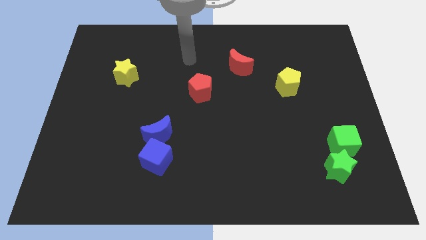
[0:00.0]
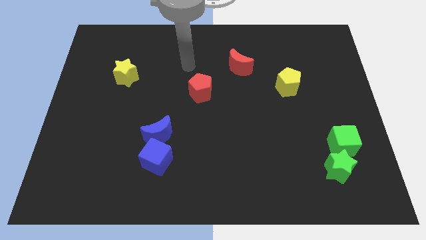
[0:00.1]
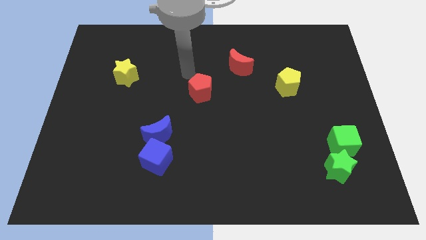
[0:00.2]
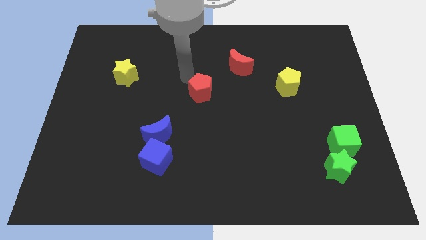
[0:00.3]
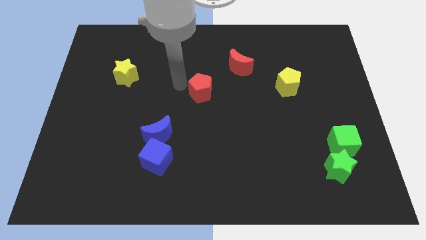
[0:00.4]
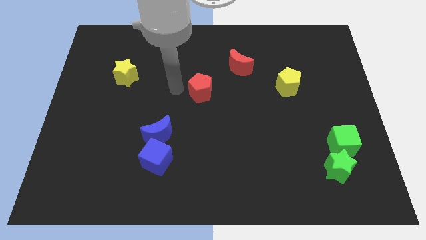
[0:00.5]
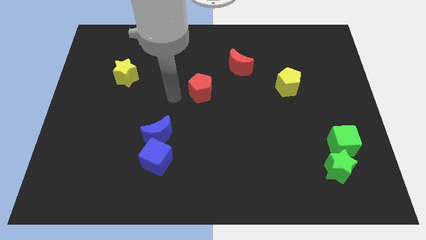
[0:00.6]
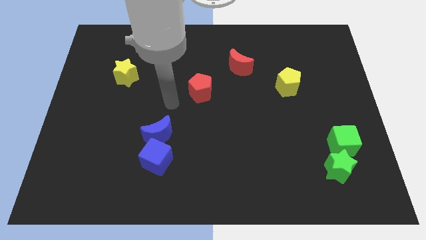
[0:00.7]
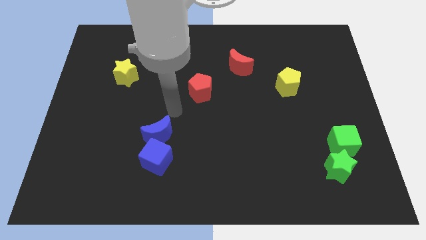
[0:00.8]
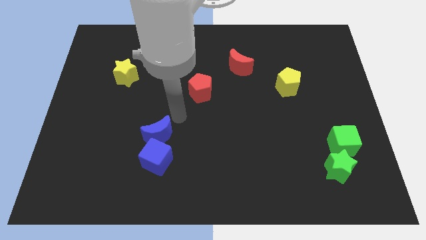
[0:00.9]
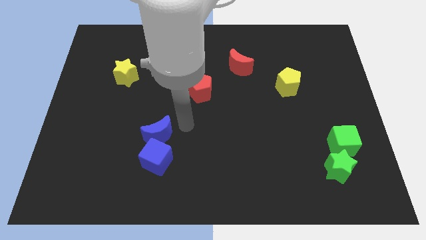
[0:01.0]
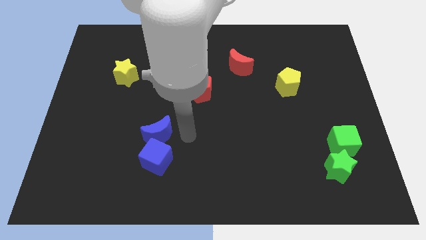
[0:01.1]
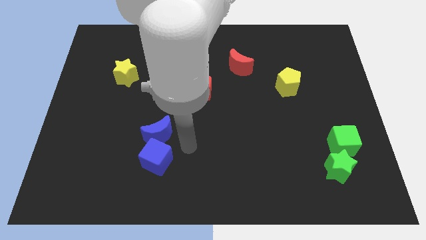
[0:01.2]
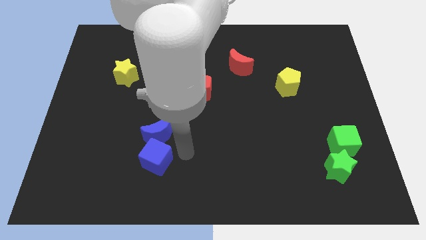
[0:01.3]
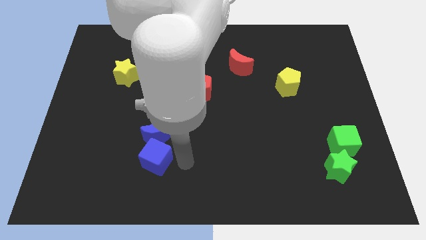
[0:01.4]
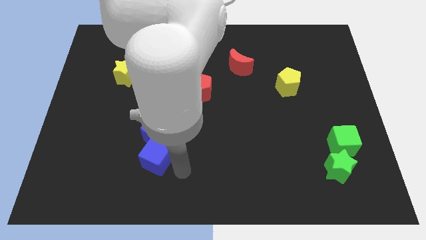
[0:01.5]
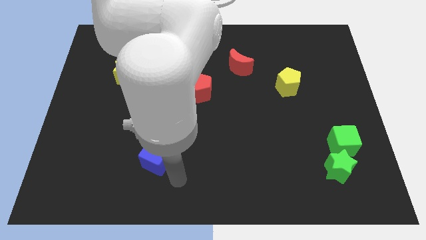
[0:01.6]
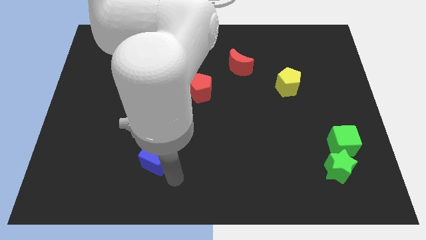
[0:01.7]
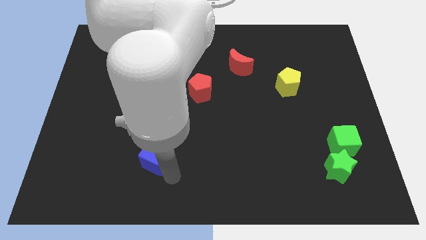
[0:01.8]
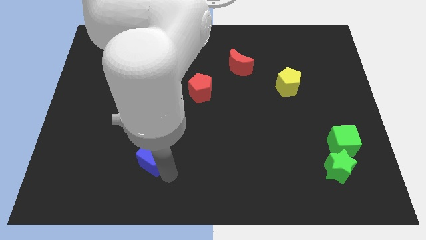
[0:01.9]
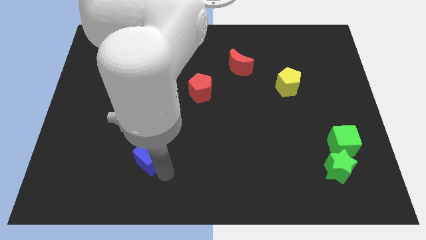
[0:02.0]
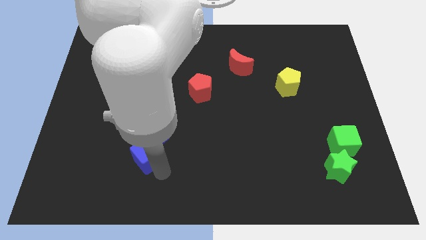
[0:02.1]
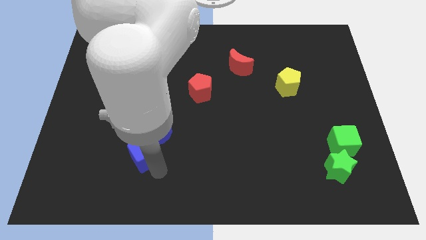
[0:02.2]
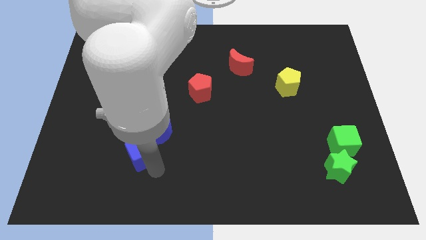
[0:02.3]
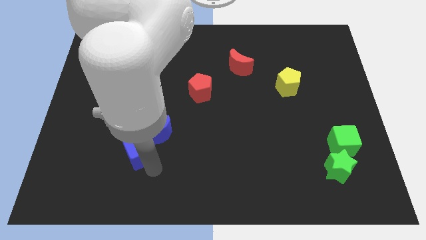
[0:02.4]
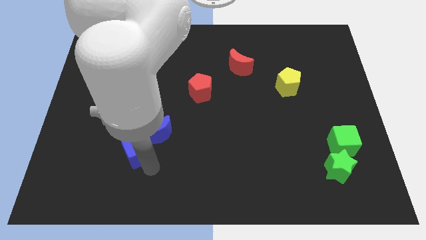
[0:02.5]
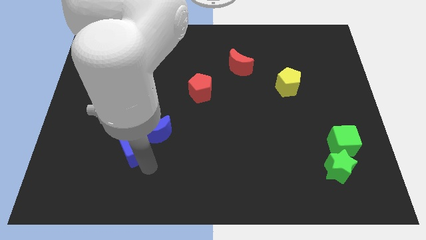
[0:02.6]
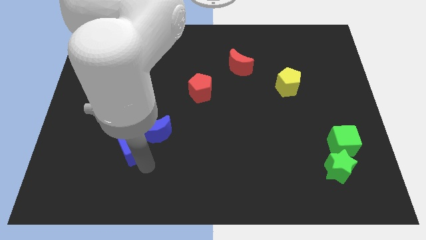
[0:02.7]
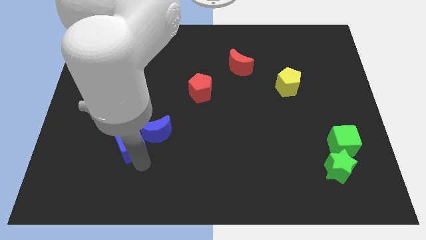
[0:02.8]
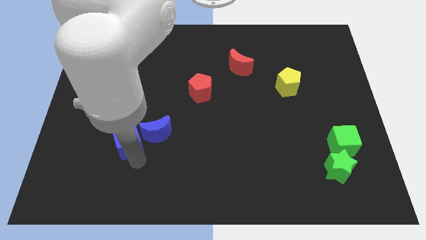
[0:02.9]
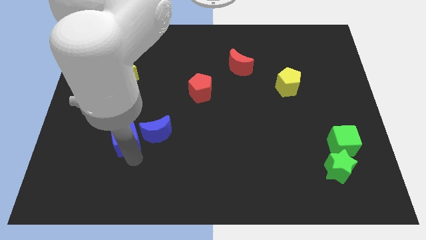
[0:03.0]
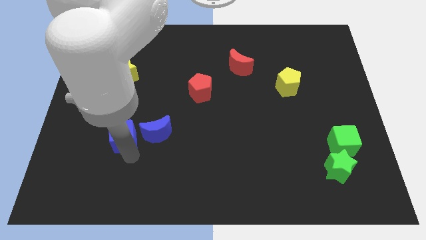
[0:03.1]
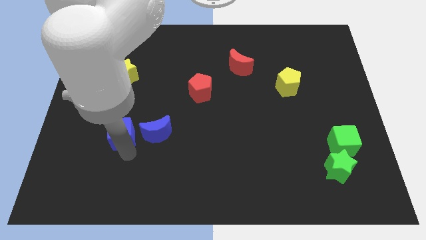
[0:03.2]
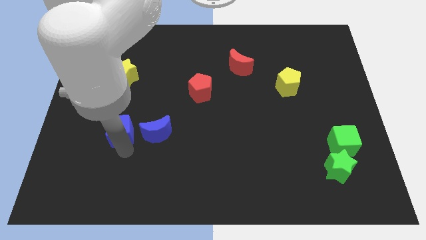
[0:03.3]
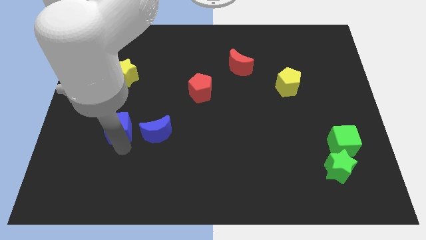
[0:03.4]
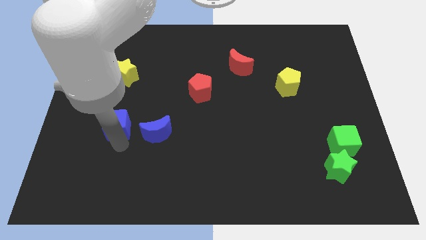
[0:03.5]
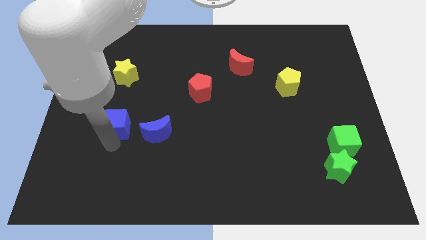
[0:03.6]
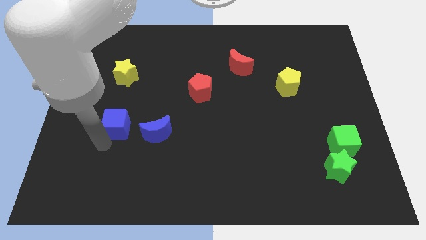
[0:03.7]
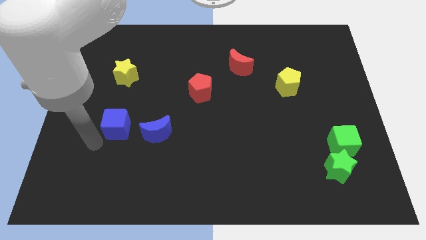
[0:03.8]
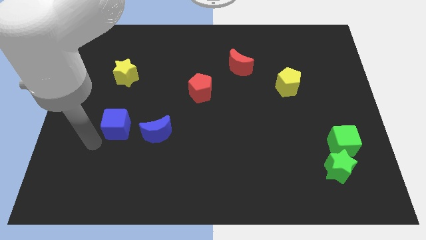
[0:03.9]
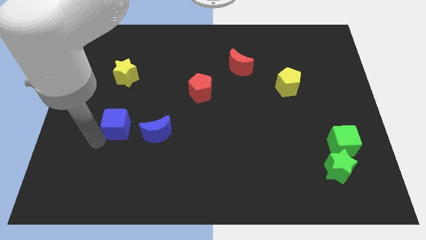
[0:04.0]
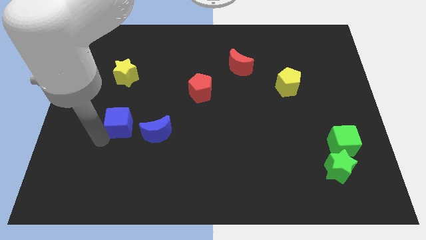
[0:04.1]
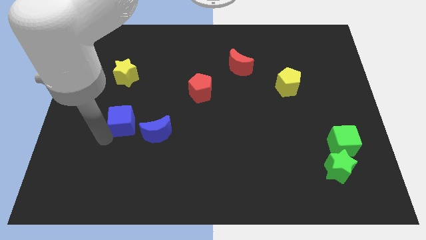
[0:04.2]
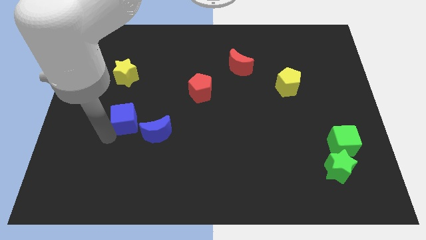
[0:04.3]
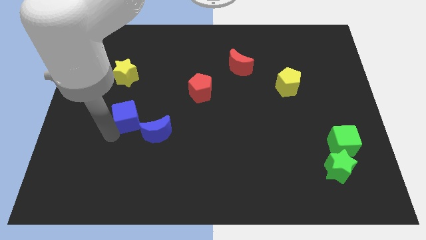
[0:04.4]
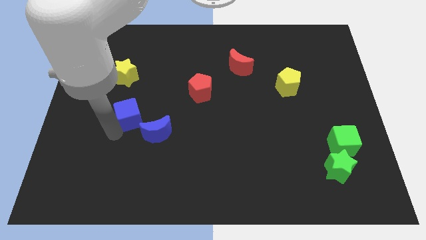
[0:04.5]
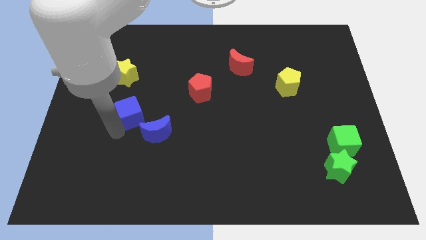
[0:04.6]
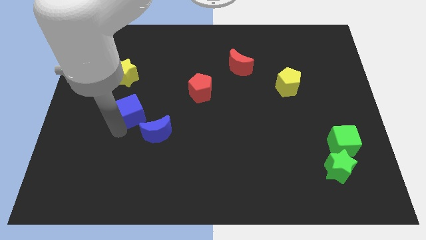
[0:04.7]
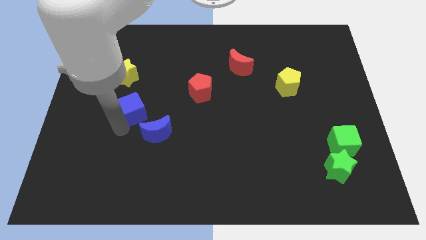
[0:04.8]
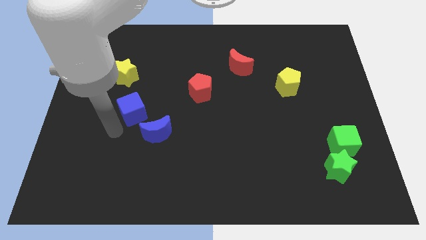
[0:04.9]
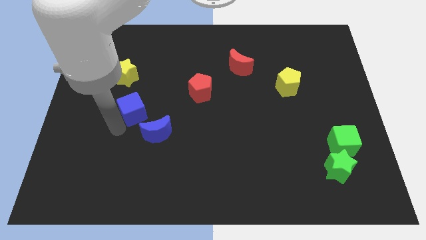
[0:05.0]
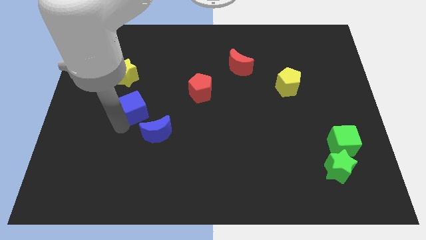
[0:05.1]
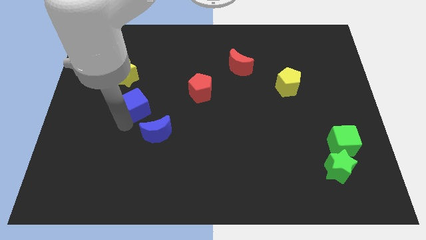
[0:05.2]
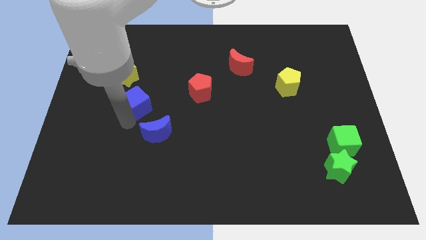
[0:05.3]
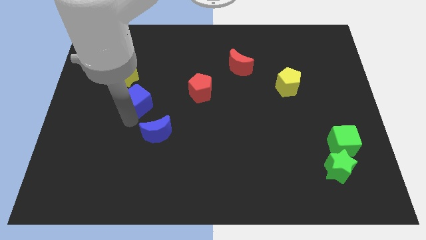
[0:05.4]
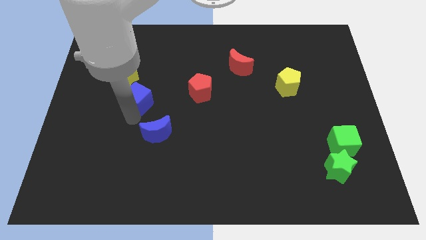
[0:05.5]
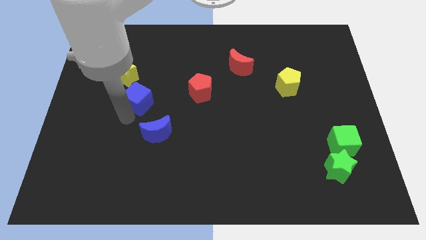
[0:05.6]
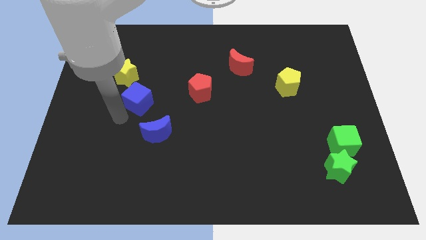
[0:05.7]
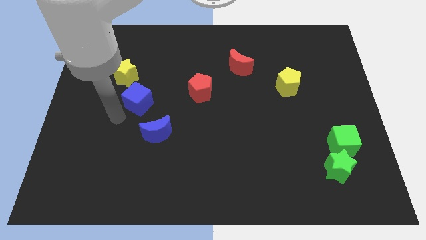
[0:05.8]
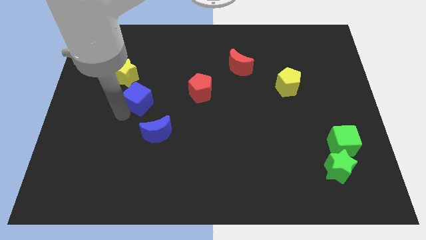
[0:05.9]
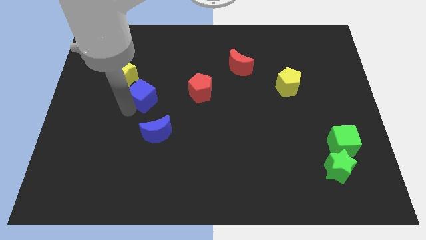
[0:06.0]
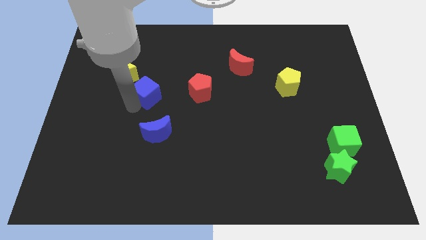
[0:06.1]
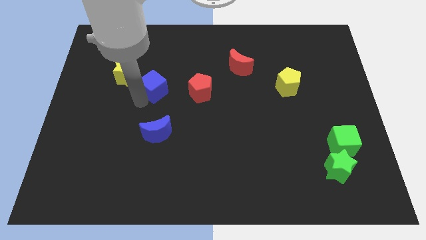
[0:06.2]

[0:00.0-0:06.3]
push the blue cube right of the yellow star

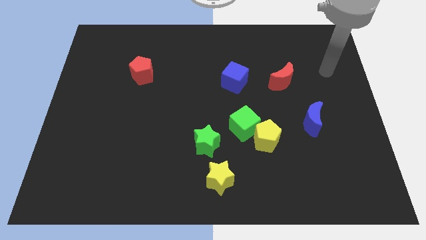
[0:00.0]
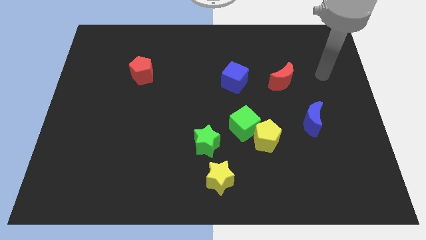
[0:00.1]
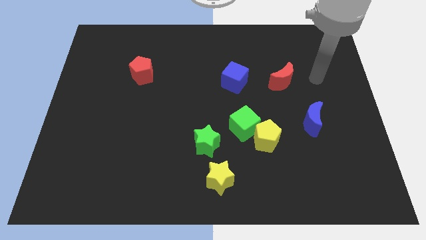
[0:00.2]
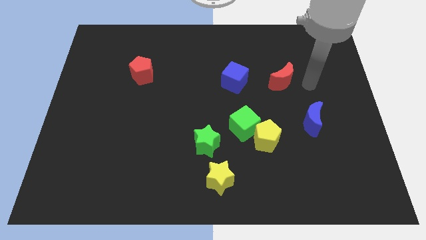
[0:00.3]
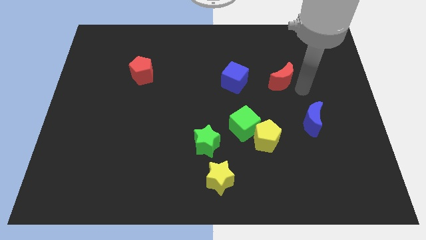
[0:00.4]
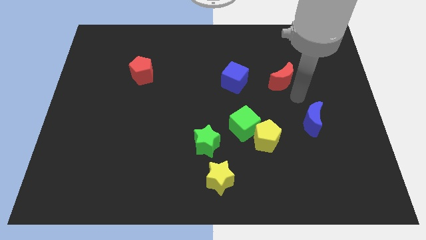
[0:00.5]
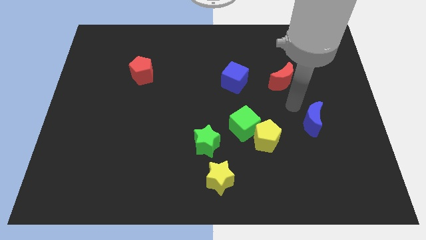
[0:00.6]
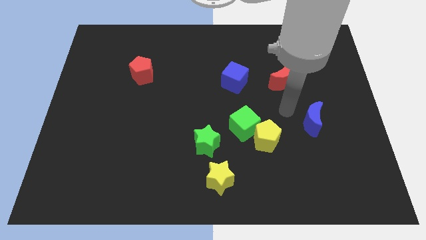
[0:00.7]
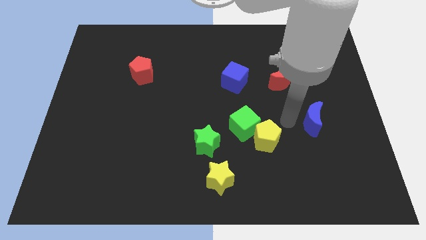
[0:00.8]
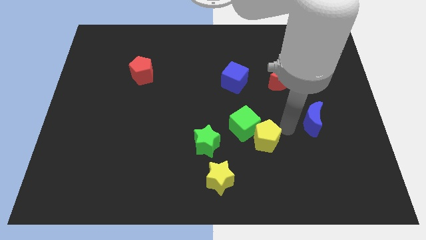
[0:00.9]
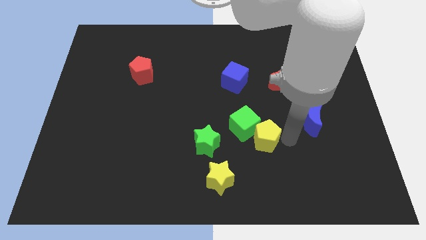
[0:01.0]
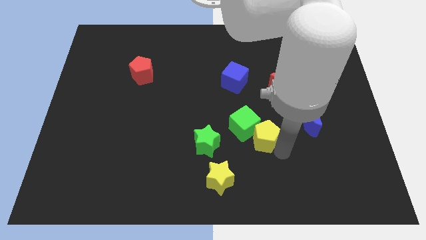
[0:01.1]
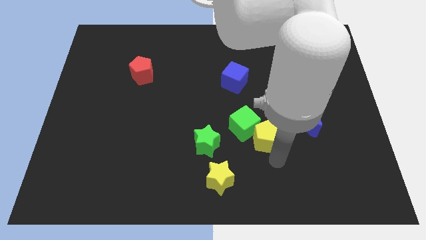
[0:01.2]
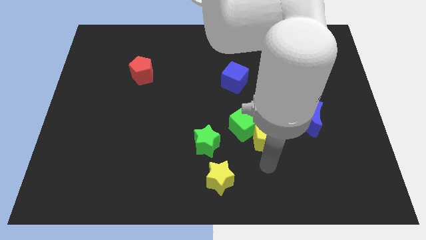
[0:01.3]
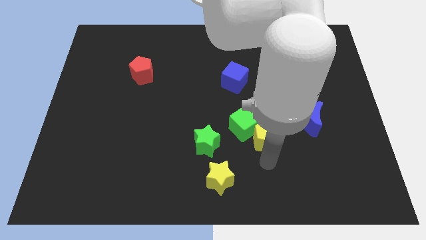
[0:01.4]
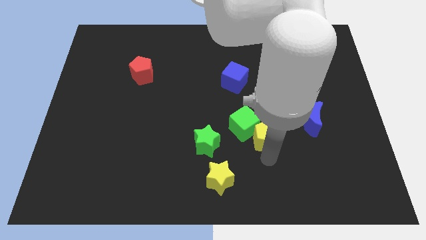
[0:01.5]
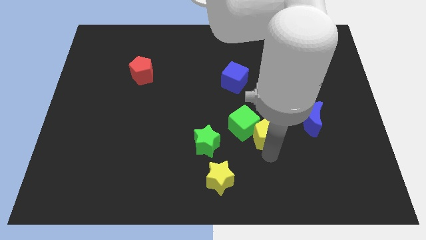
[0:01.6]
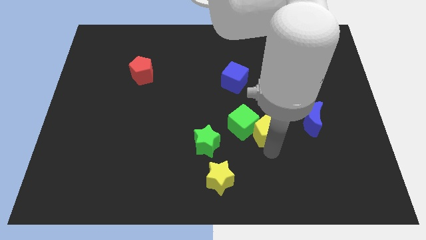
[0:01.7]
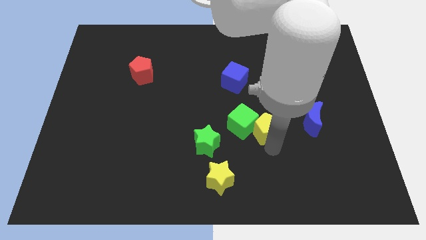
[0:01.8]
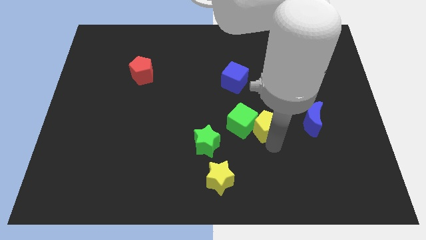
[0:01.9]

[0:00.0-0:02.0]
slide the yellow pentagon diagonally up and to the right of the green cube
